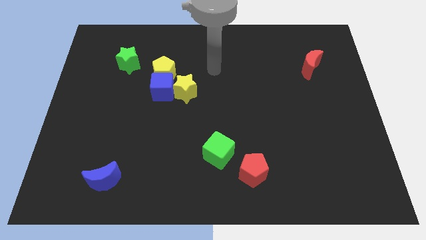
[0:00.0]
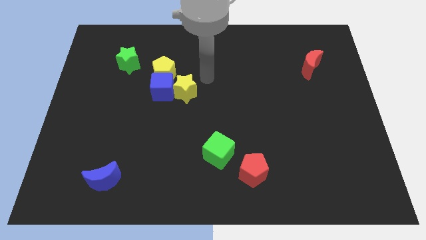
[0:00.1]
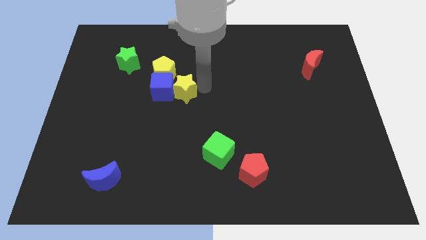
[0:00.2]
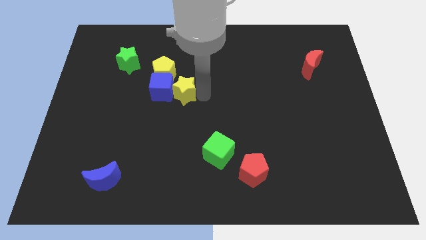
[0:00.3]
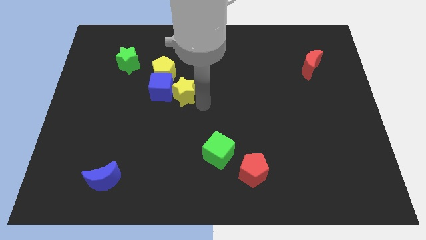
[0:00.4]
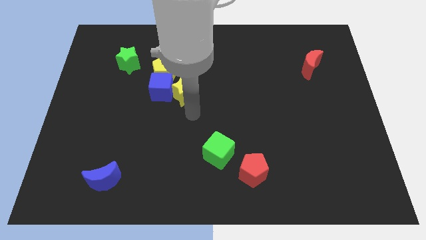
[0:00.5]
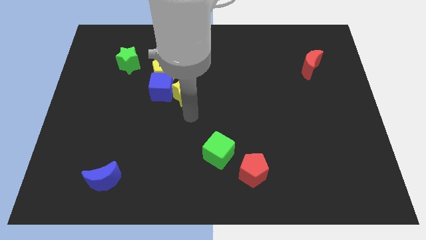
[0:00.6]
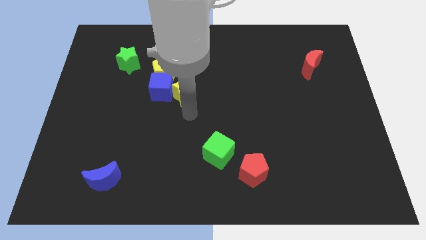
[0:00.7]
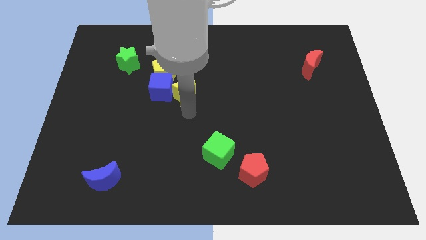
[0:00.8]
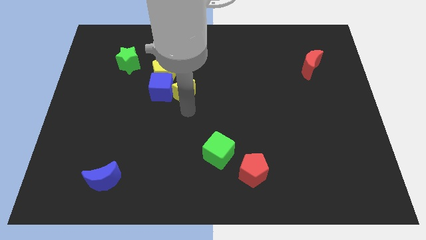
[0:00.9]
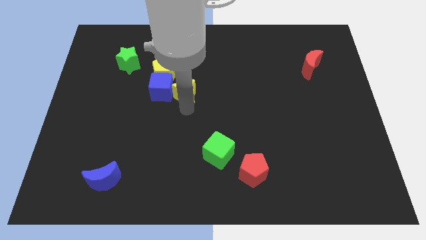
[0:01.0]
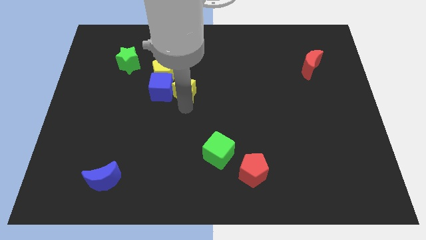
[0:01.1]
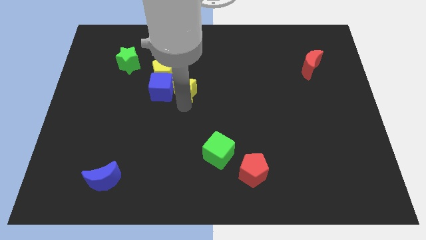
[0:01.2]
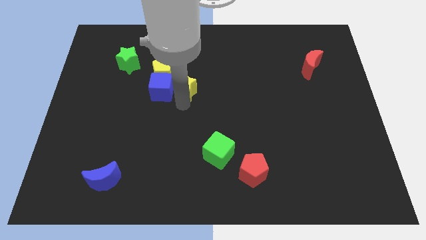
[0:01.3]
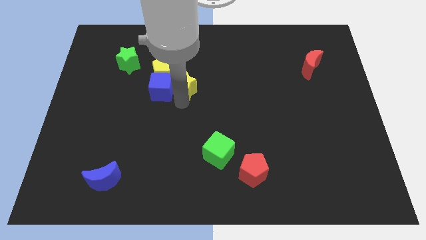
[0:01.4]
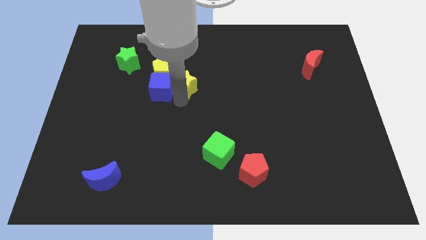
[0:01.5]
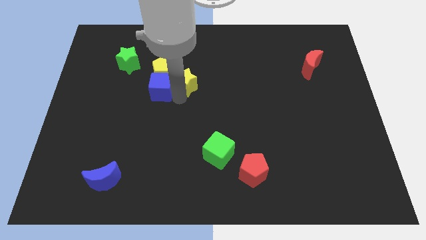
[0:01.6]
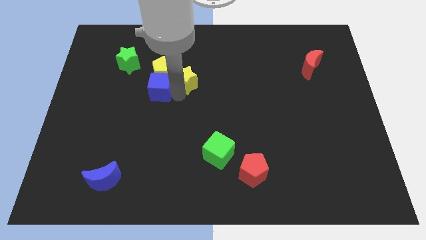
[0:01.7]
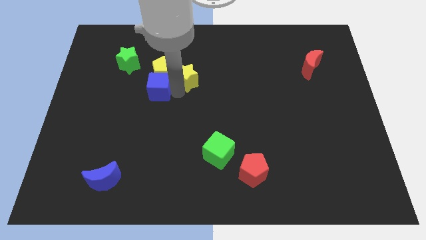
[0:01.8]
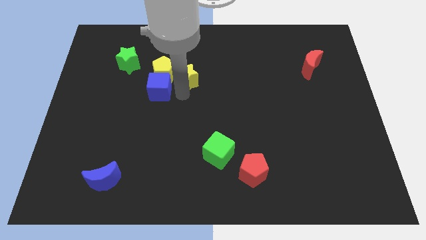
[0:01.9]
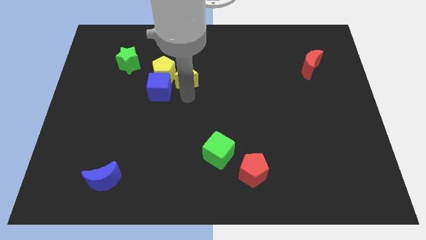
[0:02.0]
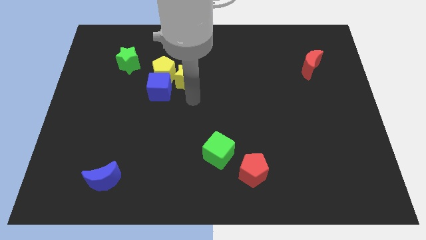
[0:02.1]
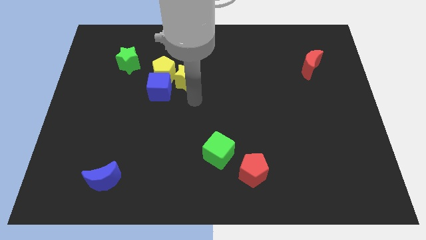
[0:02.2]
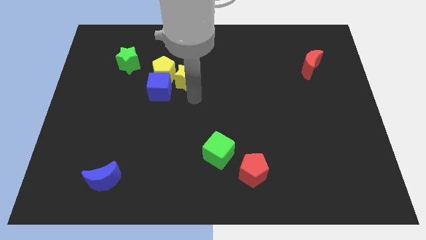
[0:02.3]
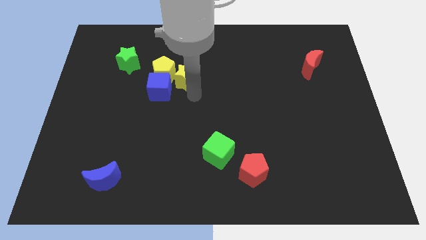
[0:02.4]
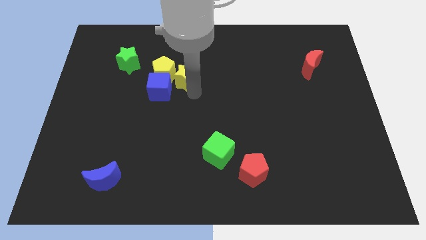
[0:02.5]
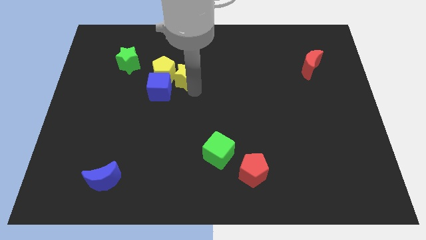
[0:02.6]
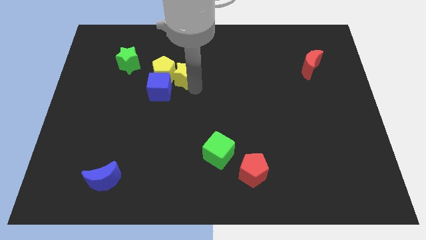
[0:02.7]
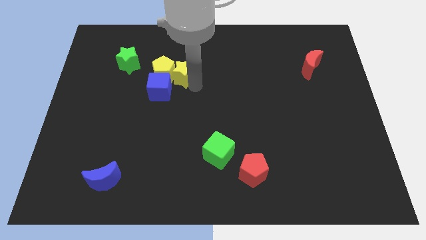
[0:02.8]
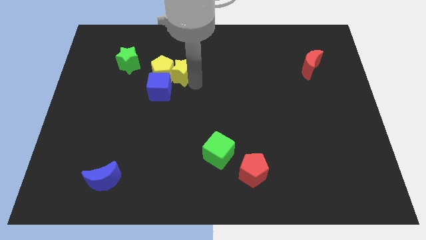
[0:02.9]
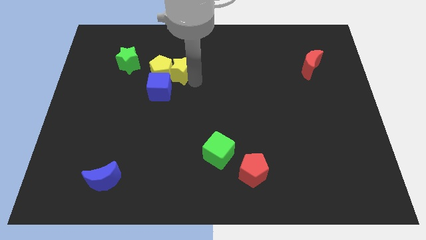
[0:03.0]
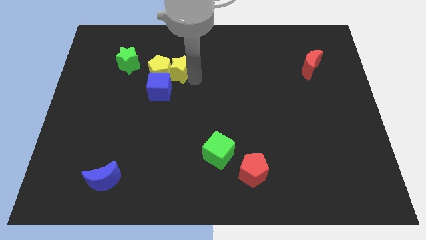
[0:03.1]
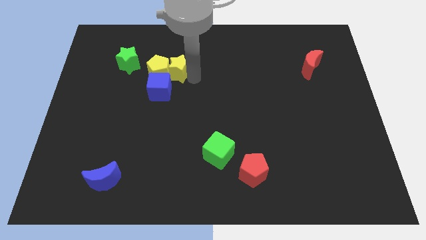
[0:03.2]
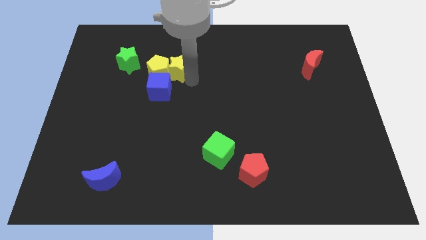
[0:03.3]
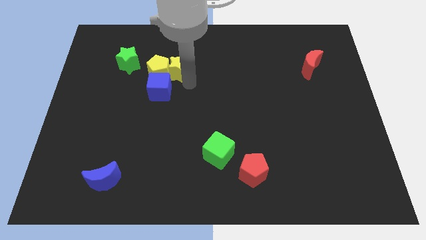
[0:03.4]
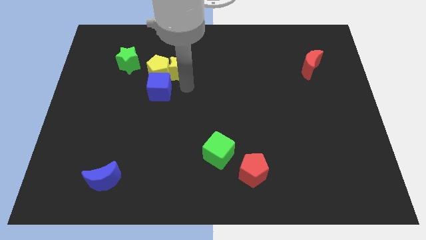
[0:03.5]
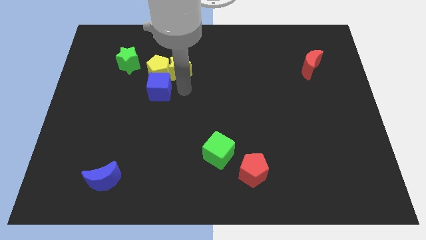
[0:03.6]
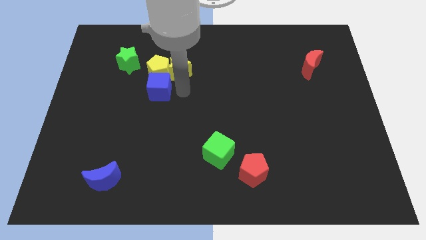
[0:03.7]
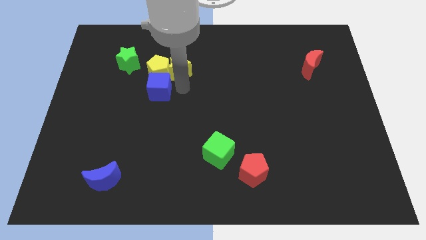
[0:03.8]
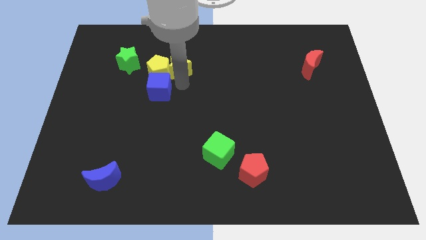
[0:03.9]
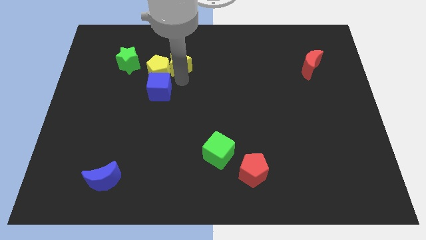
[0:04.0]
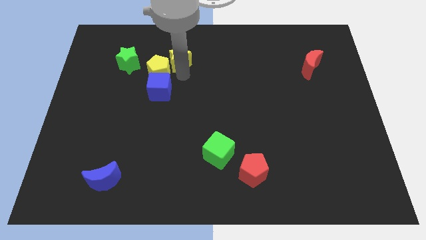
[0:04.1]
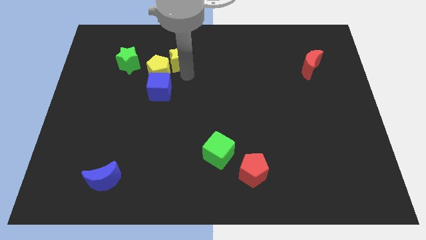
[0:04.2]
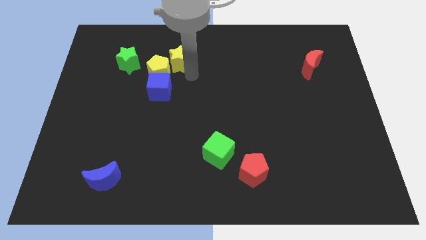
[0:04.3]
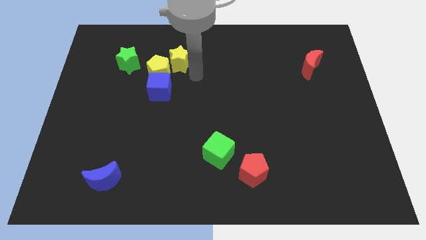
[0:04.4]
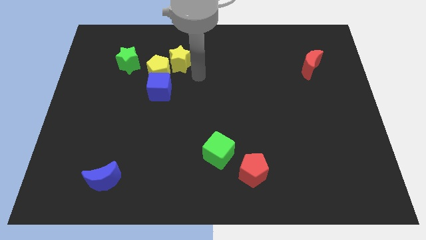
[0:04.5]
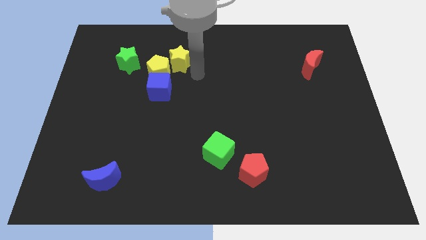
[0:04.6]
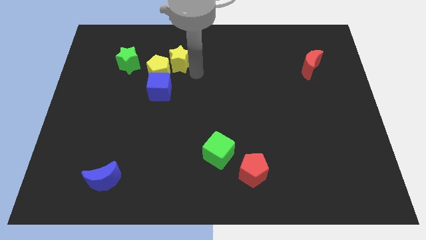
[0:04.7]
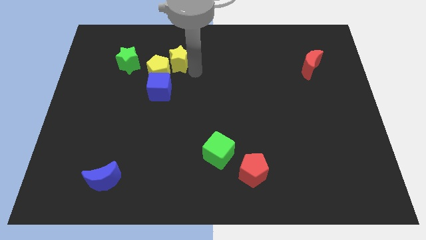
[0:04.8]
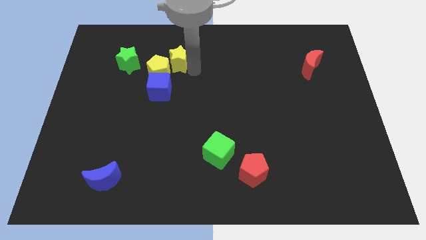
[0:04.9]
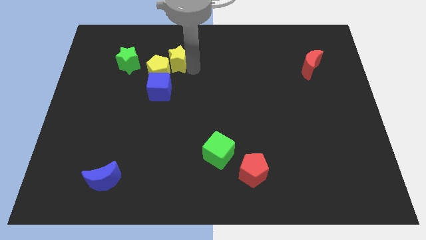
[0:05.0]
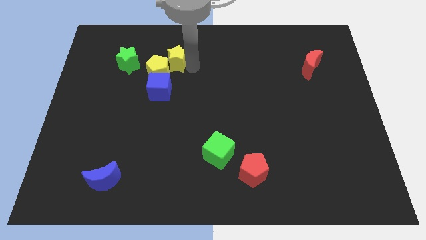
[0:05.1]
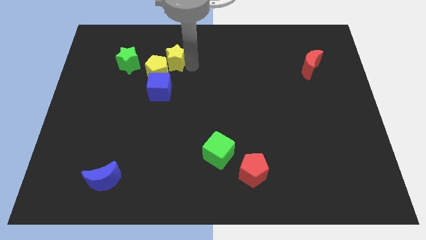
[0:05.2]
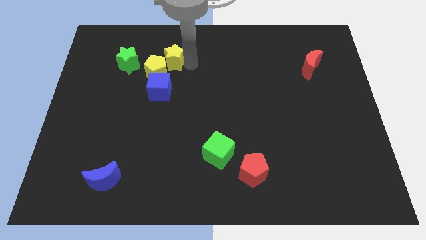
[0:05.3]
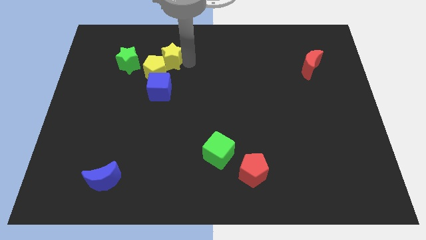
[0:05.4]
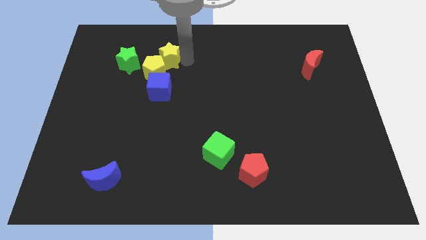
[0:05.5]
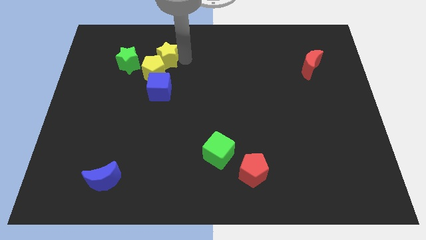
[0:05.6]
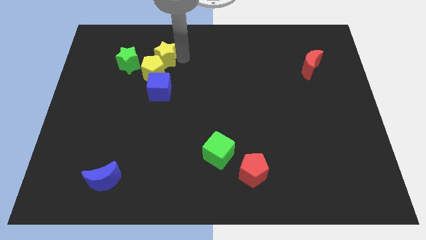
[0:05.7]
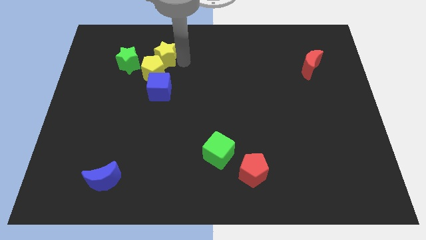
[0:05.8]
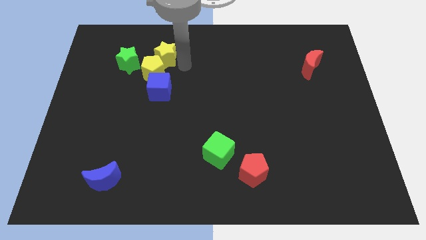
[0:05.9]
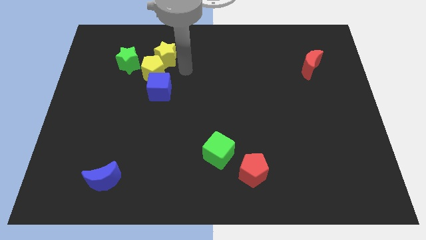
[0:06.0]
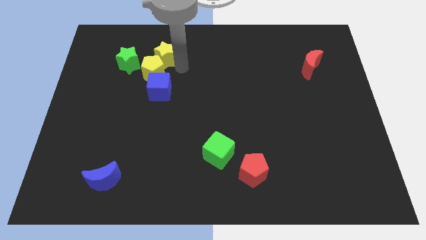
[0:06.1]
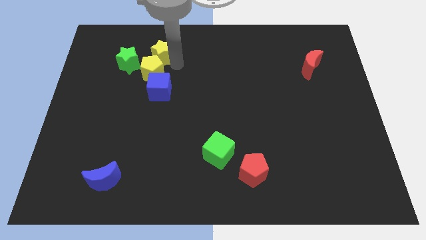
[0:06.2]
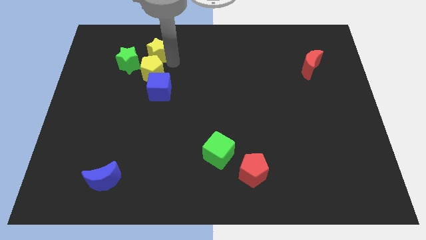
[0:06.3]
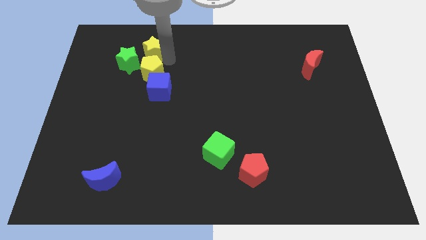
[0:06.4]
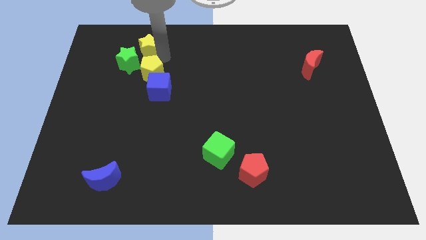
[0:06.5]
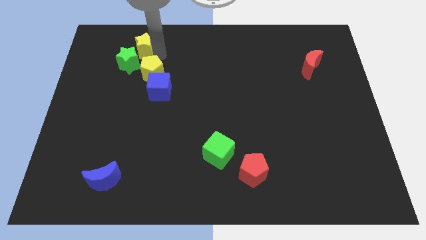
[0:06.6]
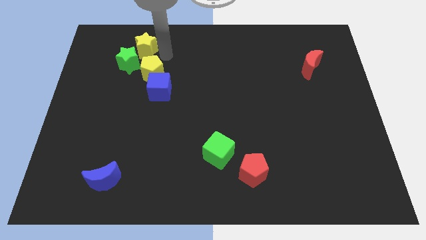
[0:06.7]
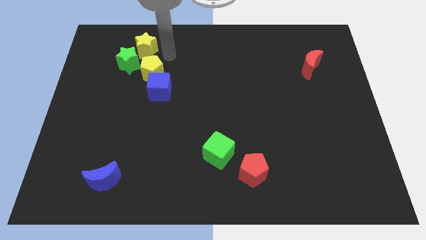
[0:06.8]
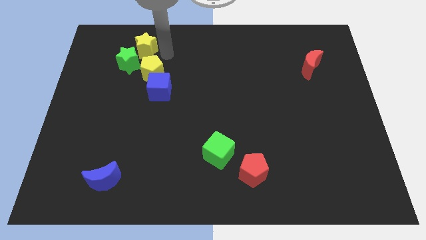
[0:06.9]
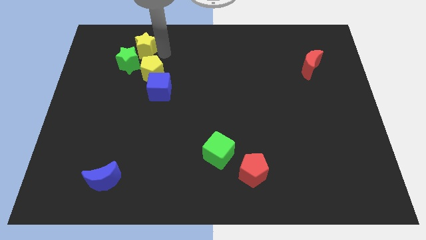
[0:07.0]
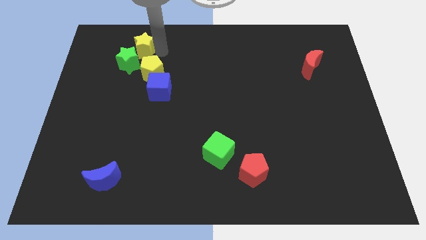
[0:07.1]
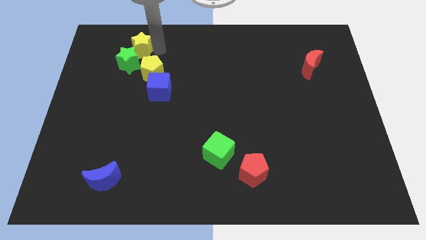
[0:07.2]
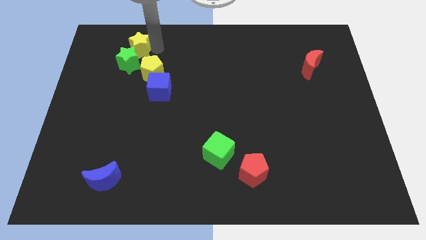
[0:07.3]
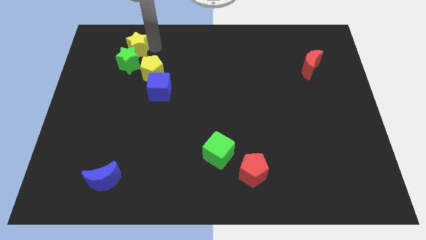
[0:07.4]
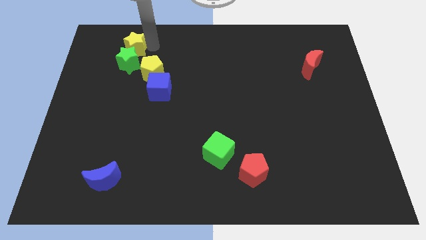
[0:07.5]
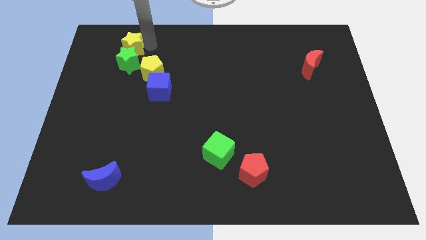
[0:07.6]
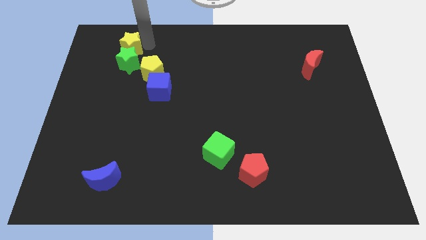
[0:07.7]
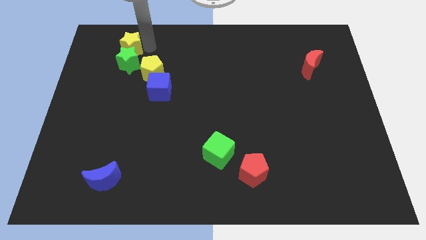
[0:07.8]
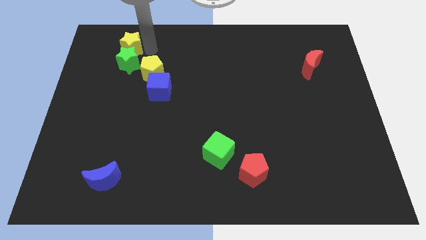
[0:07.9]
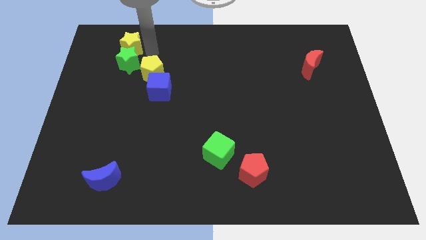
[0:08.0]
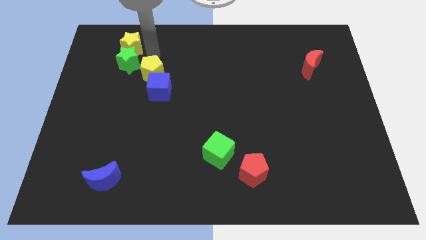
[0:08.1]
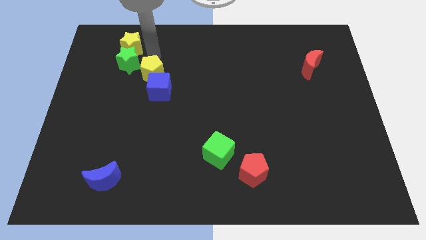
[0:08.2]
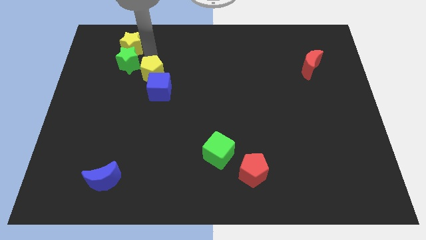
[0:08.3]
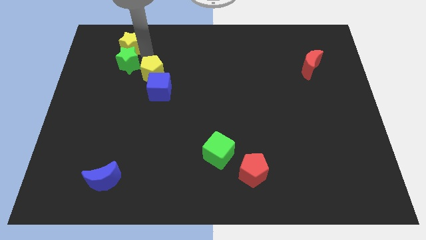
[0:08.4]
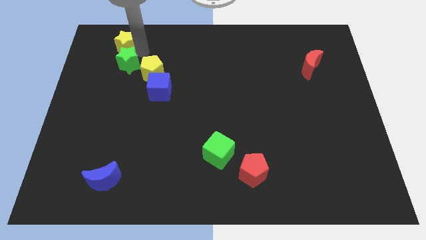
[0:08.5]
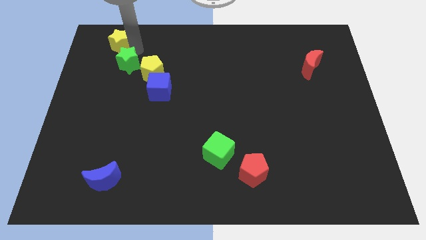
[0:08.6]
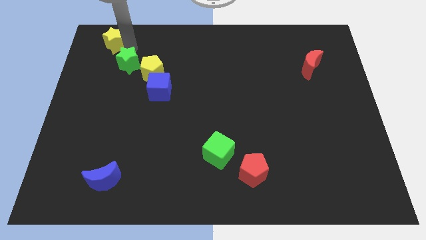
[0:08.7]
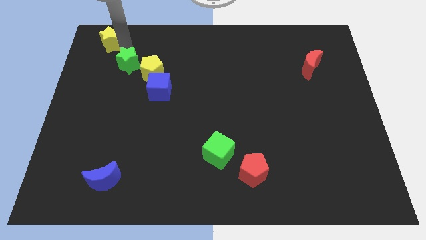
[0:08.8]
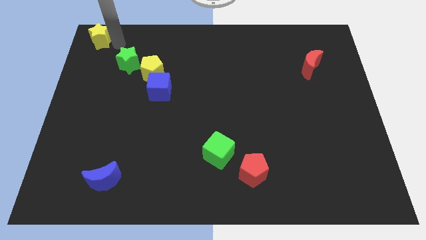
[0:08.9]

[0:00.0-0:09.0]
push the yellow star to the top left of the board
